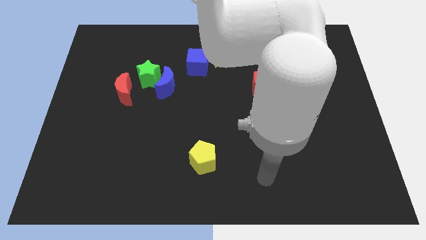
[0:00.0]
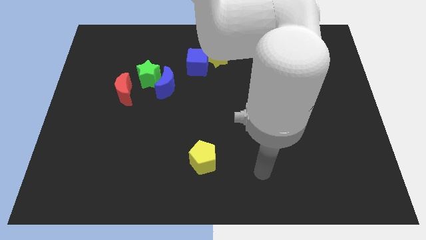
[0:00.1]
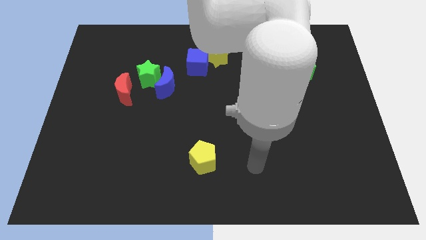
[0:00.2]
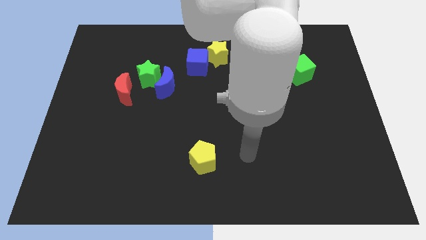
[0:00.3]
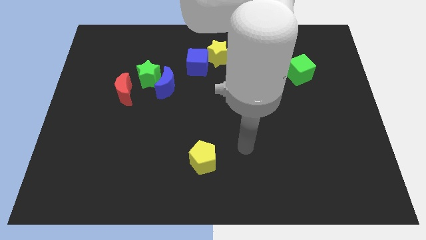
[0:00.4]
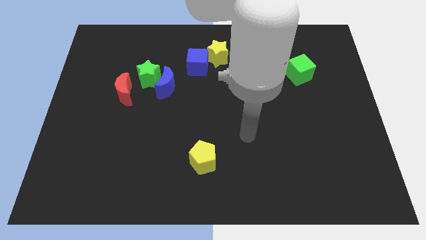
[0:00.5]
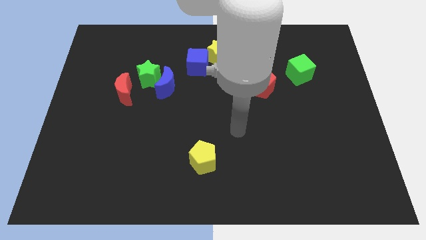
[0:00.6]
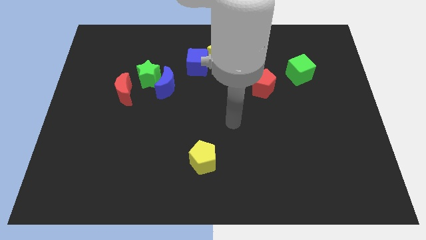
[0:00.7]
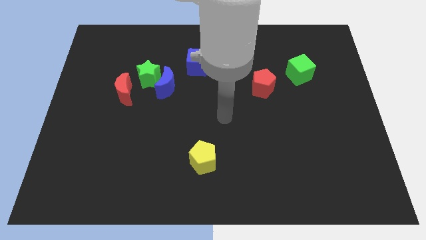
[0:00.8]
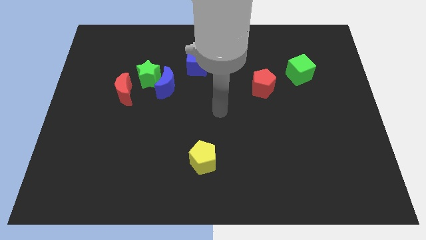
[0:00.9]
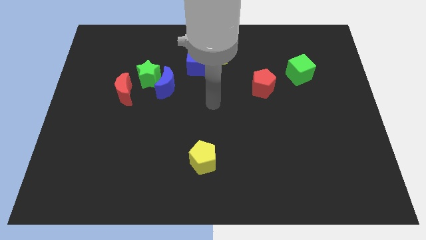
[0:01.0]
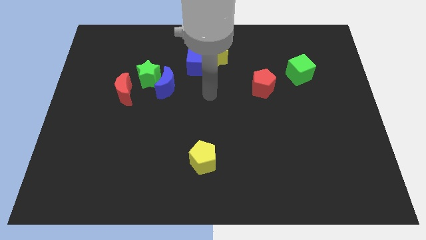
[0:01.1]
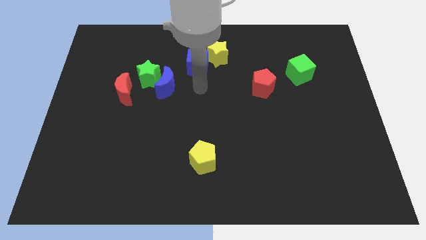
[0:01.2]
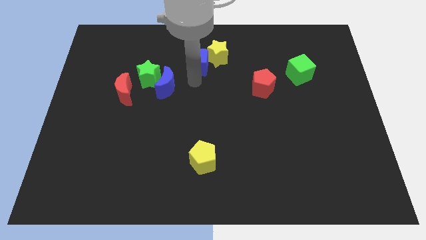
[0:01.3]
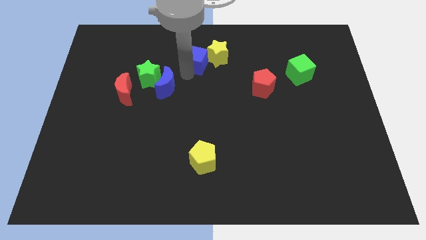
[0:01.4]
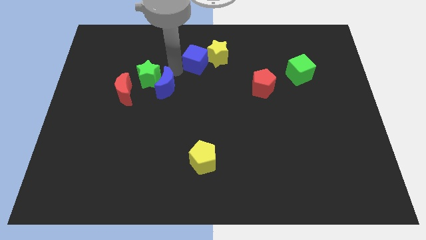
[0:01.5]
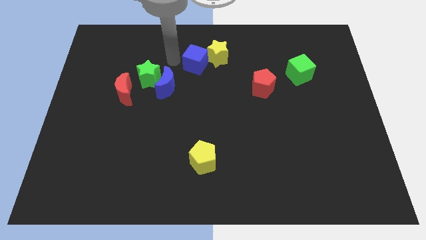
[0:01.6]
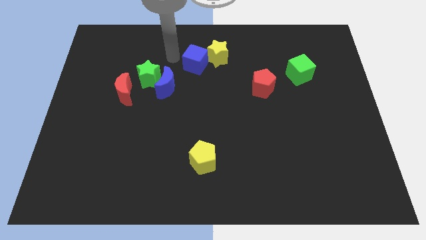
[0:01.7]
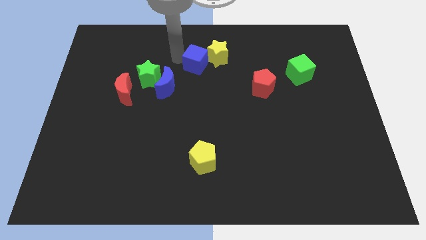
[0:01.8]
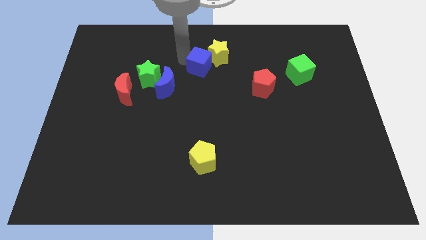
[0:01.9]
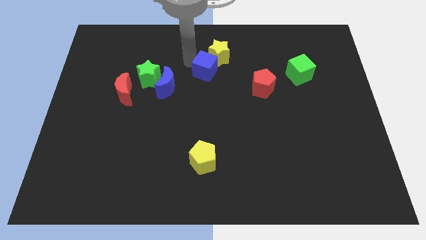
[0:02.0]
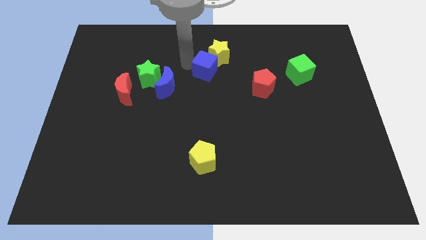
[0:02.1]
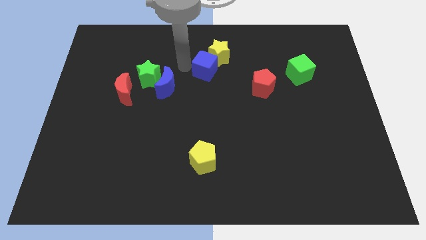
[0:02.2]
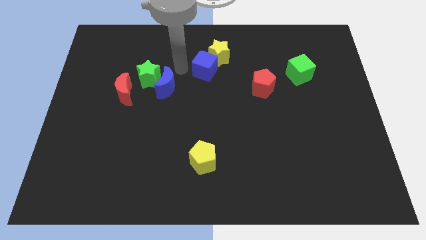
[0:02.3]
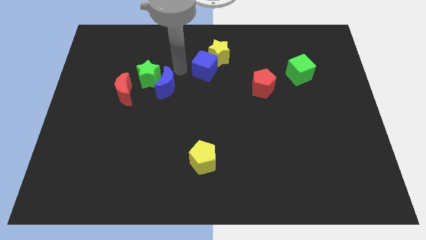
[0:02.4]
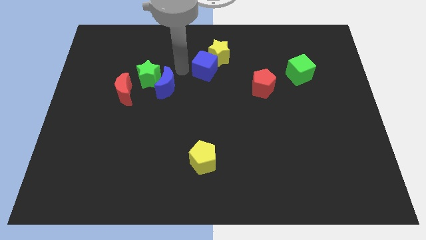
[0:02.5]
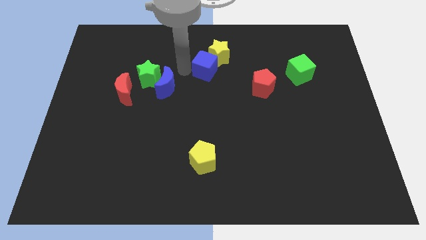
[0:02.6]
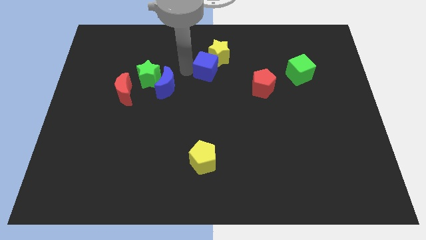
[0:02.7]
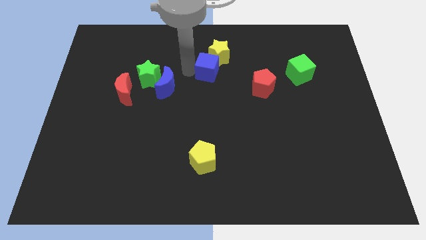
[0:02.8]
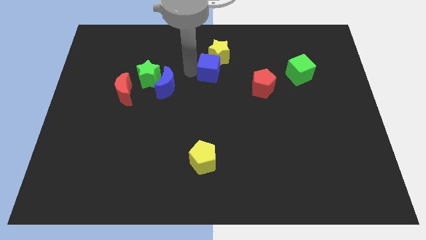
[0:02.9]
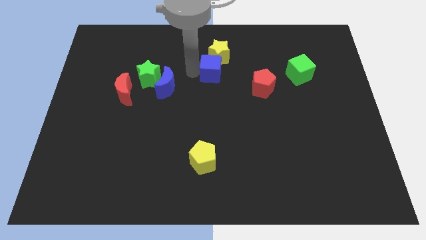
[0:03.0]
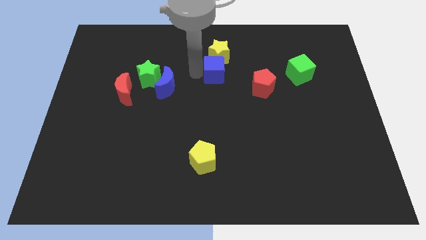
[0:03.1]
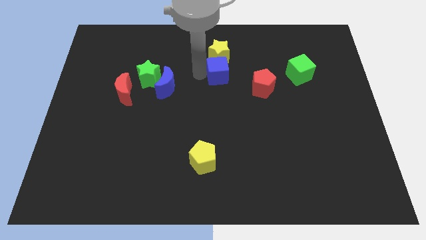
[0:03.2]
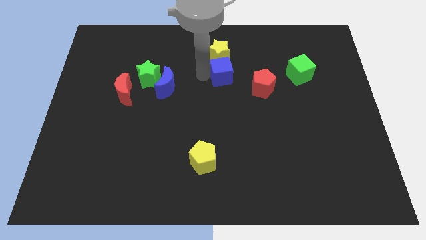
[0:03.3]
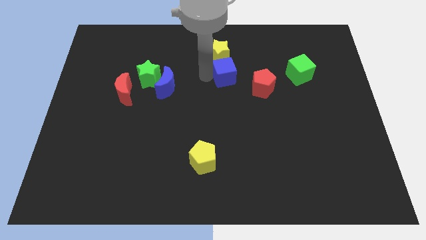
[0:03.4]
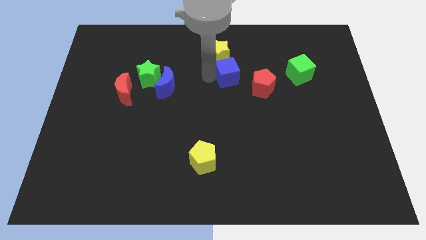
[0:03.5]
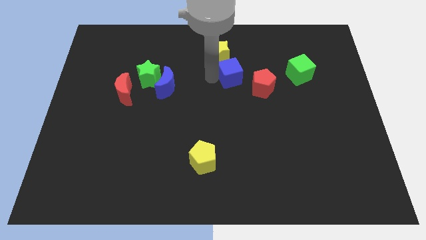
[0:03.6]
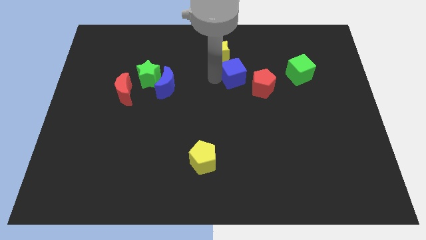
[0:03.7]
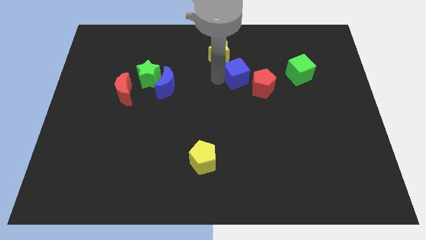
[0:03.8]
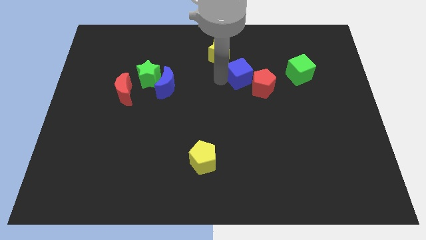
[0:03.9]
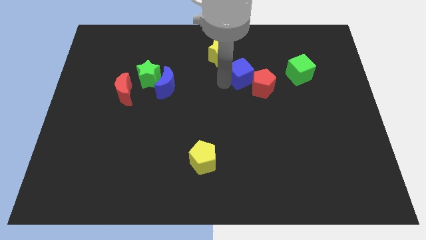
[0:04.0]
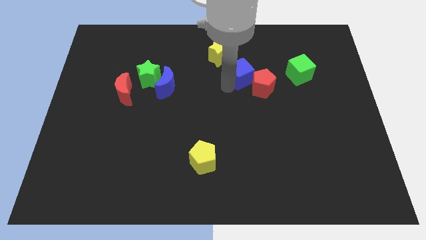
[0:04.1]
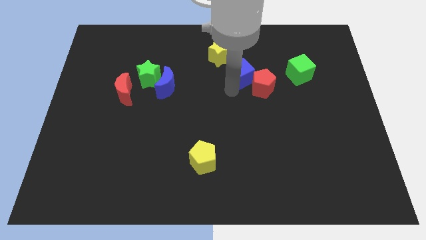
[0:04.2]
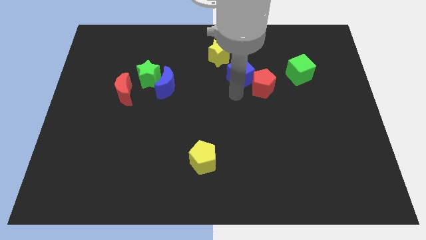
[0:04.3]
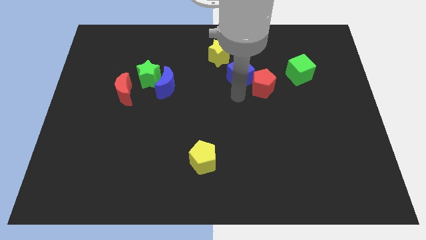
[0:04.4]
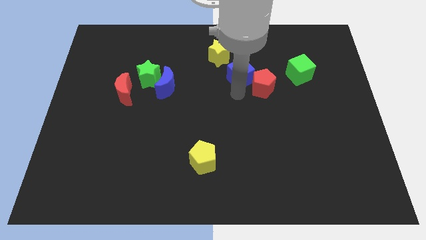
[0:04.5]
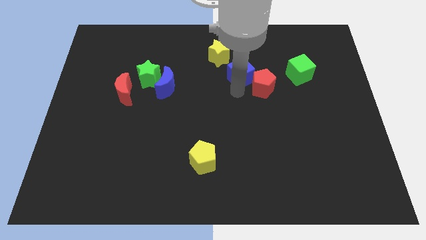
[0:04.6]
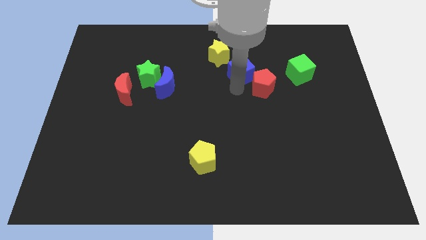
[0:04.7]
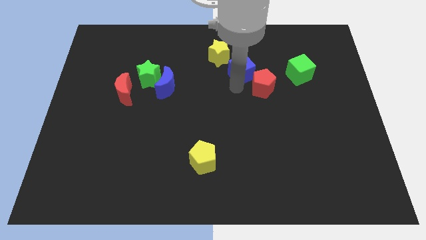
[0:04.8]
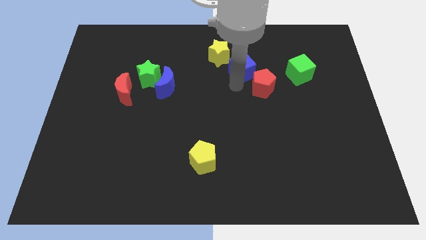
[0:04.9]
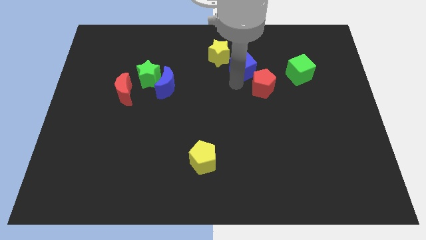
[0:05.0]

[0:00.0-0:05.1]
move the blue cube just right of the yellow star

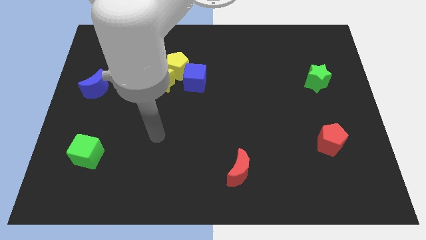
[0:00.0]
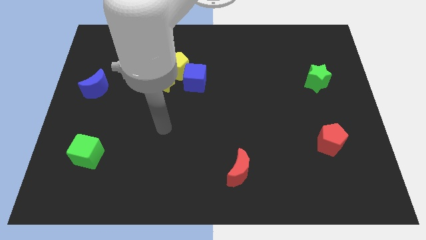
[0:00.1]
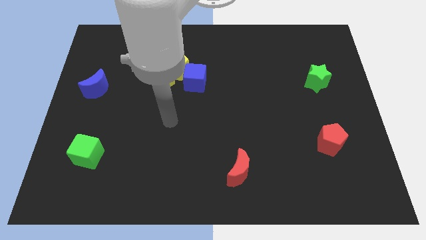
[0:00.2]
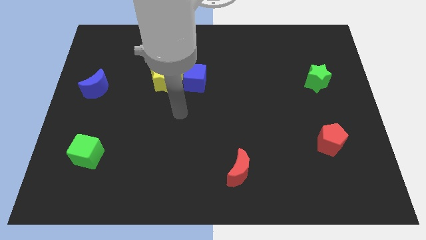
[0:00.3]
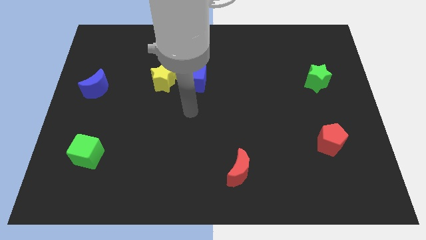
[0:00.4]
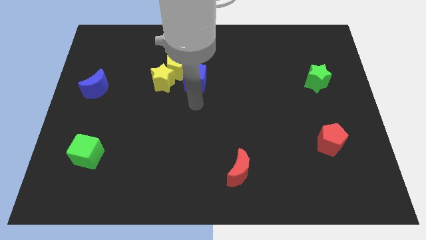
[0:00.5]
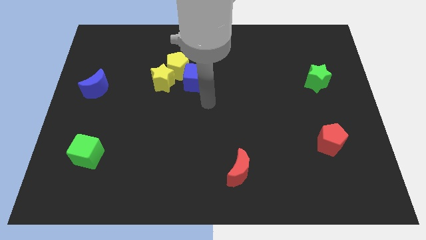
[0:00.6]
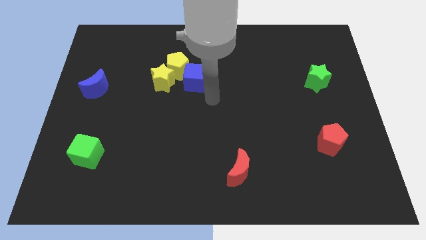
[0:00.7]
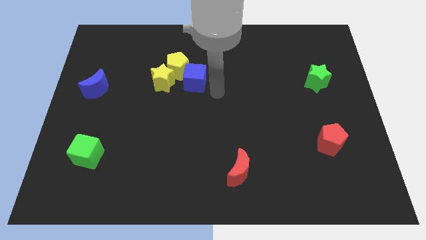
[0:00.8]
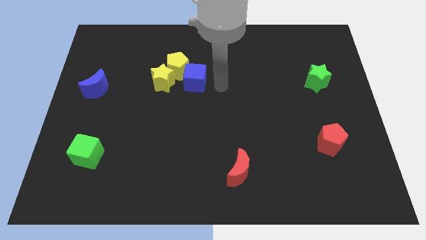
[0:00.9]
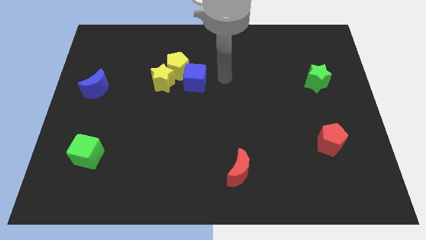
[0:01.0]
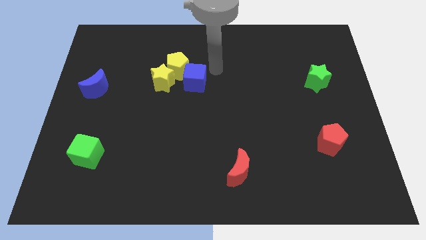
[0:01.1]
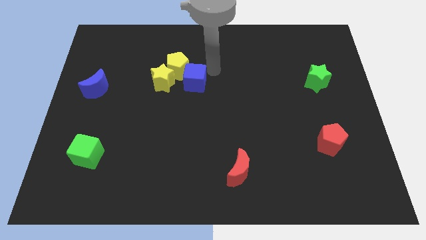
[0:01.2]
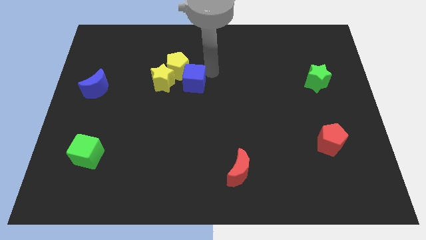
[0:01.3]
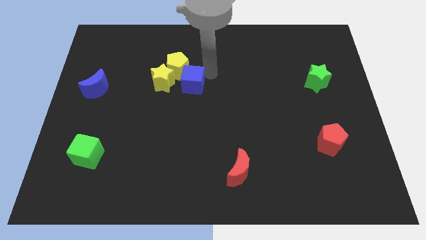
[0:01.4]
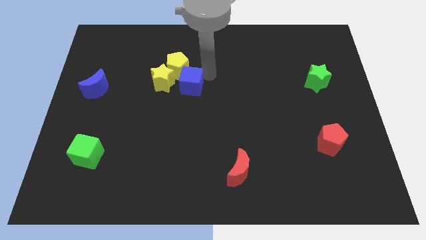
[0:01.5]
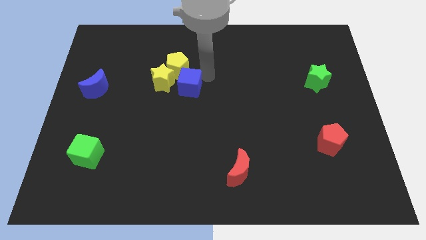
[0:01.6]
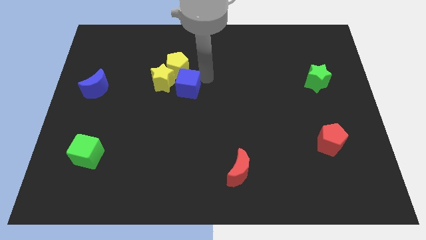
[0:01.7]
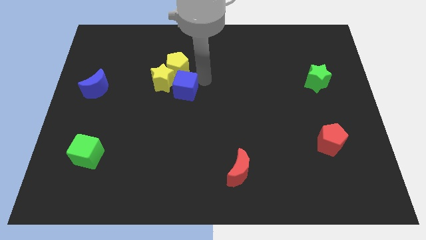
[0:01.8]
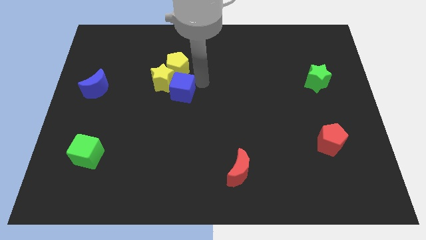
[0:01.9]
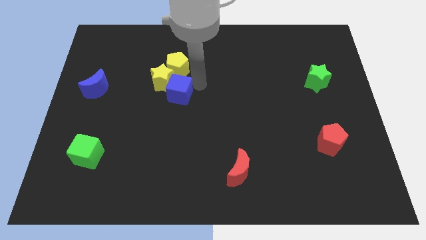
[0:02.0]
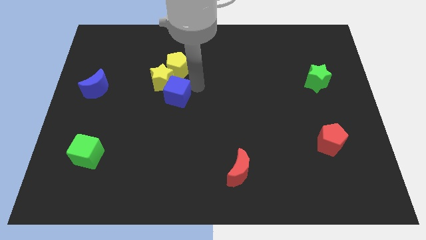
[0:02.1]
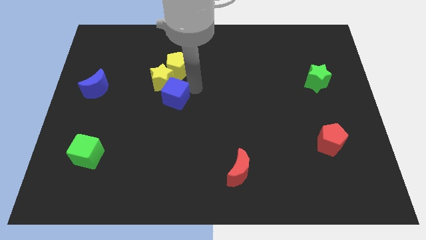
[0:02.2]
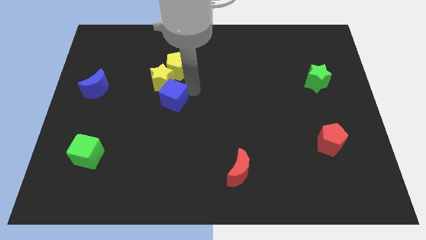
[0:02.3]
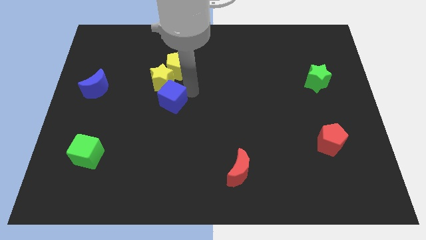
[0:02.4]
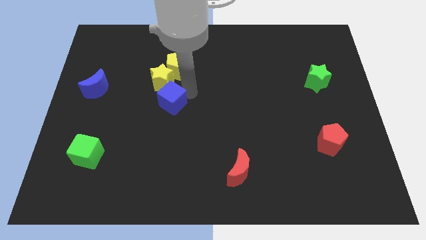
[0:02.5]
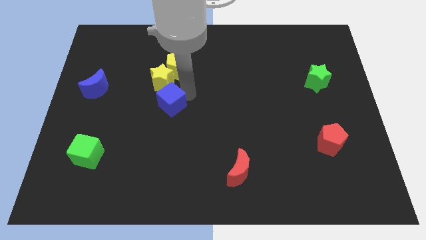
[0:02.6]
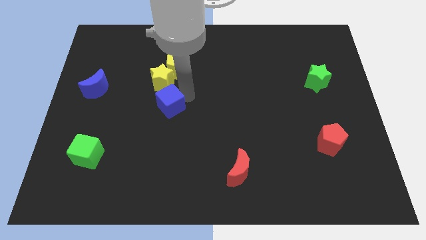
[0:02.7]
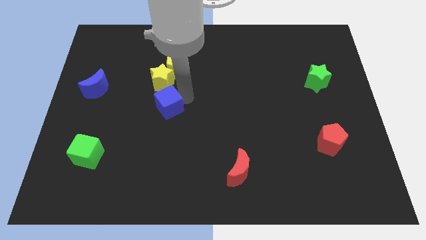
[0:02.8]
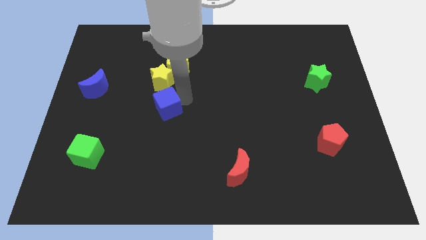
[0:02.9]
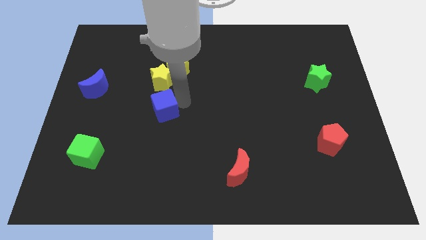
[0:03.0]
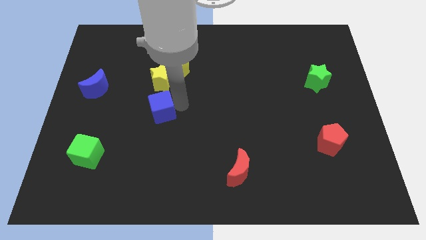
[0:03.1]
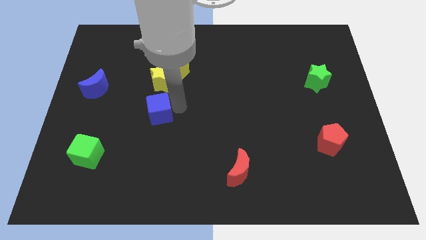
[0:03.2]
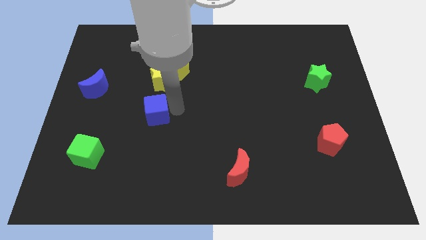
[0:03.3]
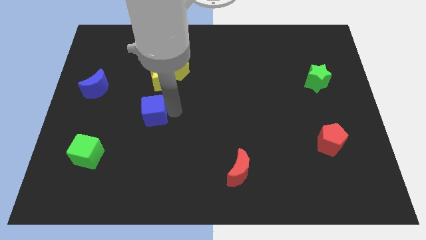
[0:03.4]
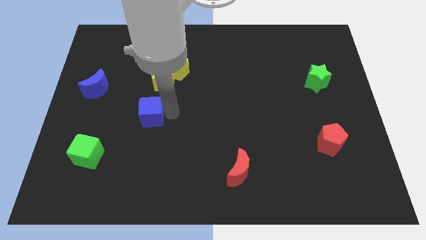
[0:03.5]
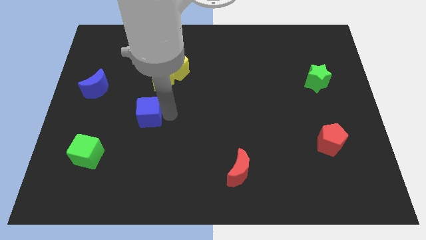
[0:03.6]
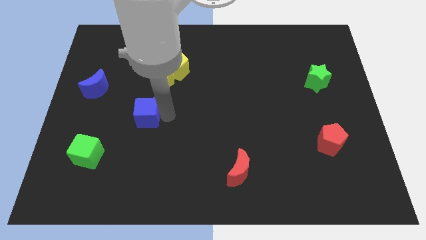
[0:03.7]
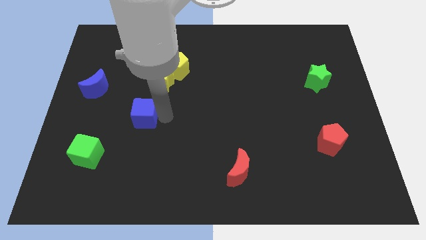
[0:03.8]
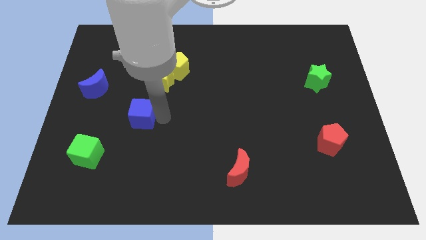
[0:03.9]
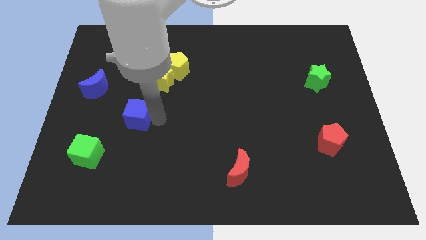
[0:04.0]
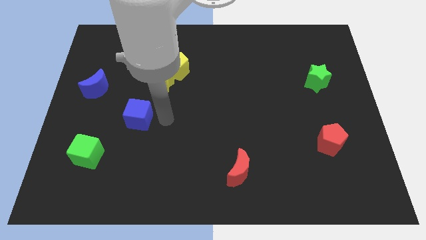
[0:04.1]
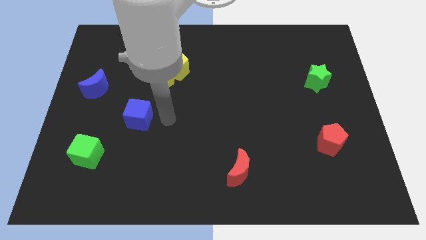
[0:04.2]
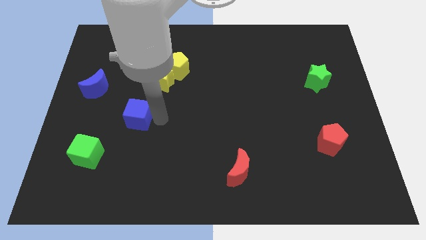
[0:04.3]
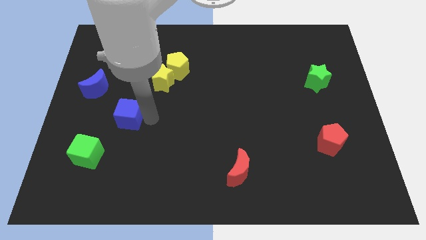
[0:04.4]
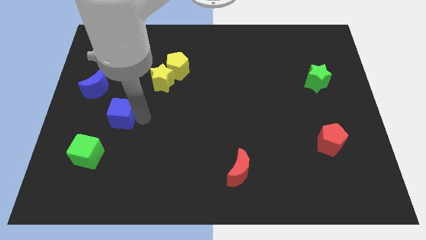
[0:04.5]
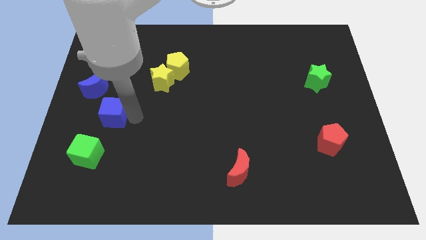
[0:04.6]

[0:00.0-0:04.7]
put the blue cube to the top side of the green cube
